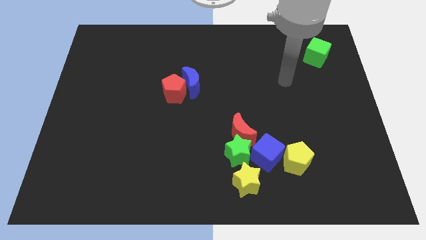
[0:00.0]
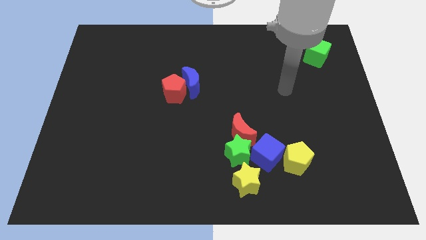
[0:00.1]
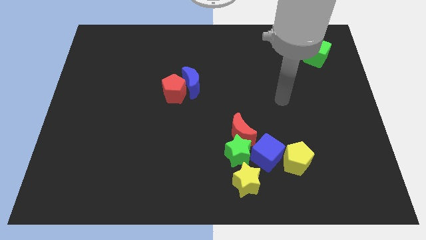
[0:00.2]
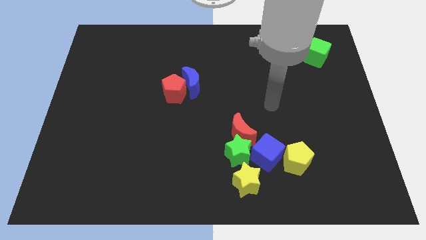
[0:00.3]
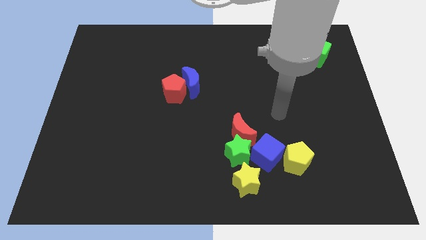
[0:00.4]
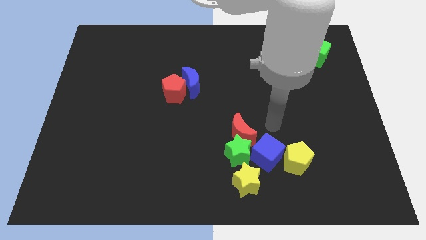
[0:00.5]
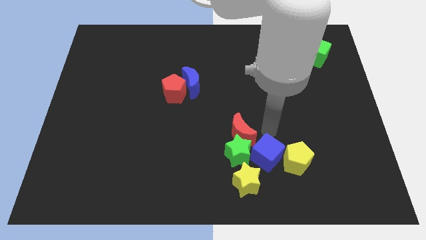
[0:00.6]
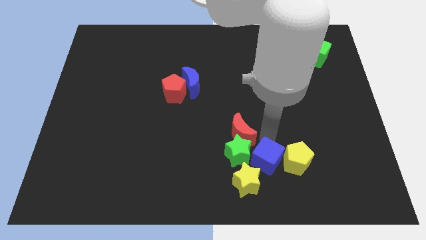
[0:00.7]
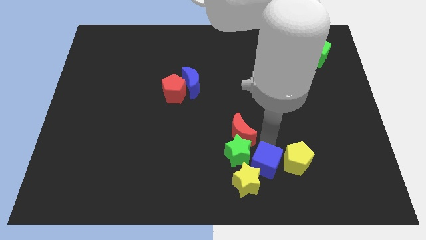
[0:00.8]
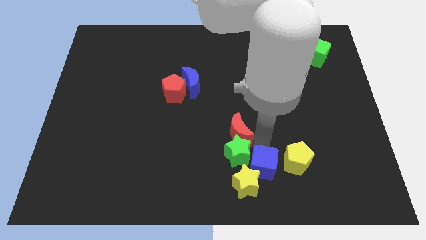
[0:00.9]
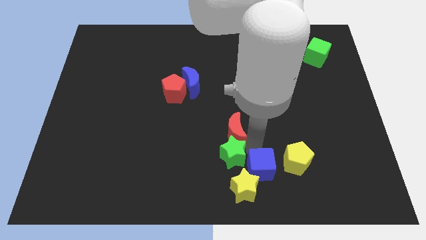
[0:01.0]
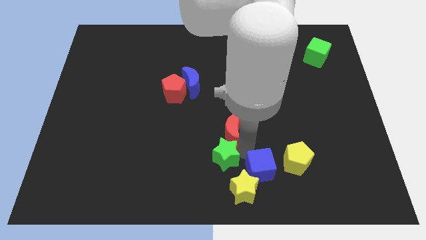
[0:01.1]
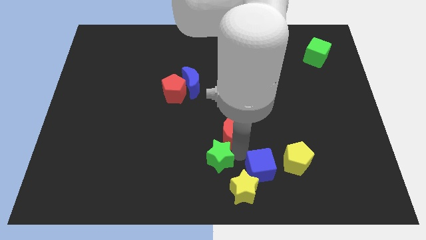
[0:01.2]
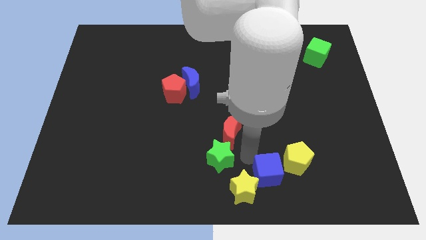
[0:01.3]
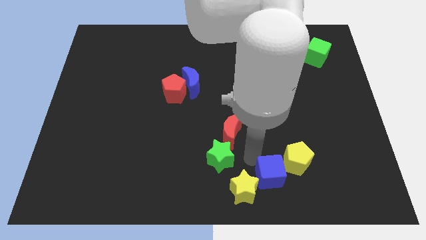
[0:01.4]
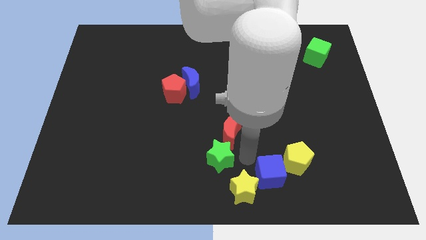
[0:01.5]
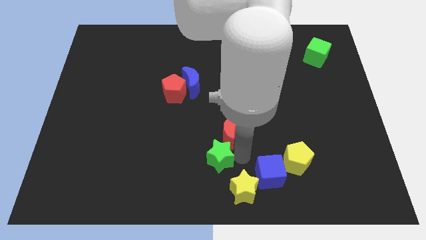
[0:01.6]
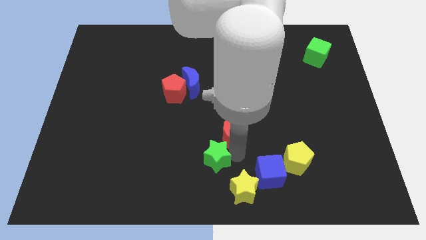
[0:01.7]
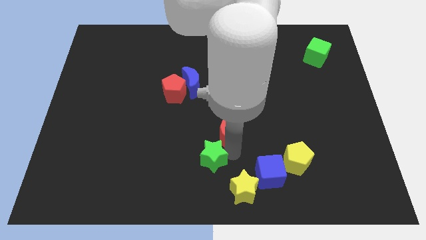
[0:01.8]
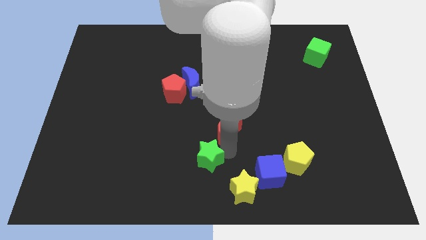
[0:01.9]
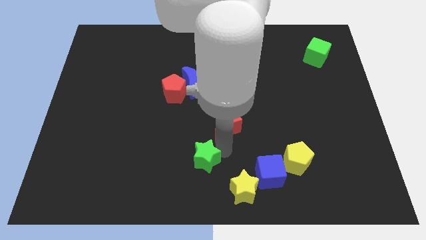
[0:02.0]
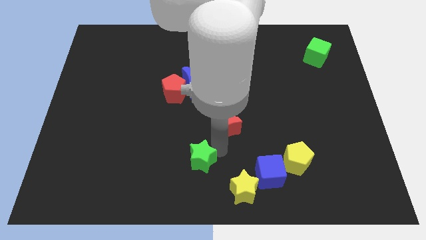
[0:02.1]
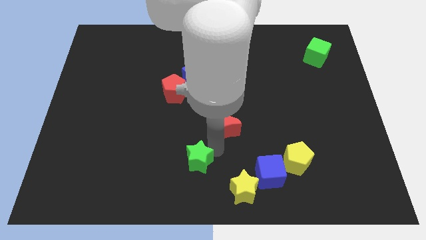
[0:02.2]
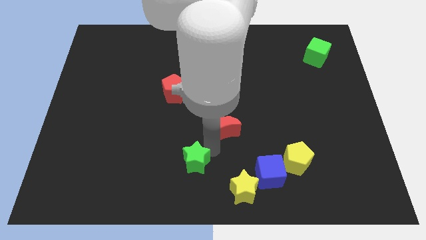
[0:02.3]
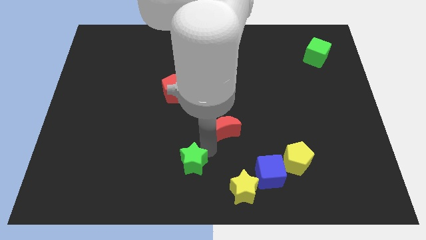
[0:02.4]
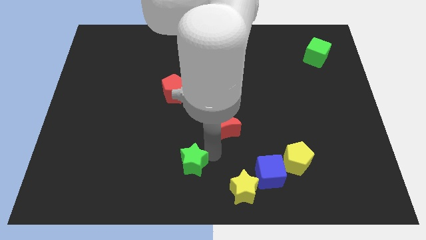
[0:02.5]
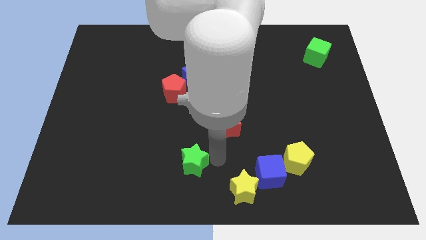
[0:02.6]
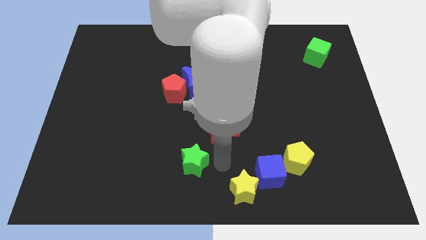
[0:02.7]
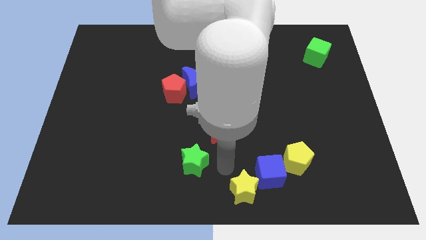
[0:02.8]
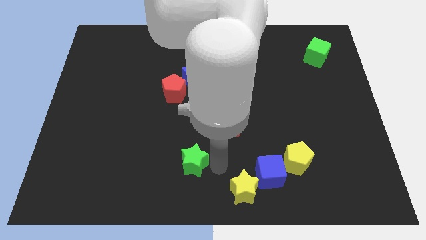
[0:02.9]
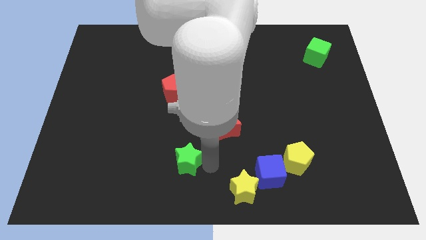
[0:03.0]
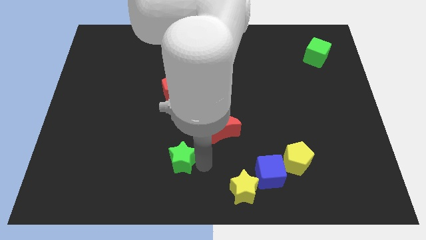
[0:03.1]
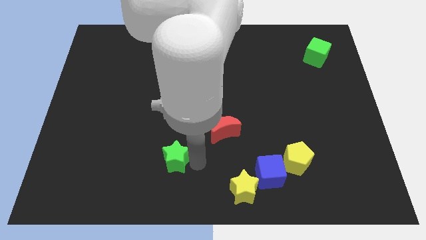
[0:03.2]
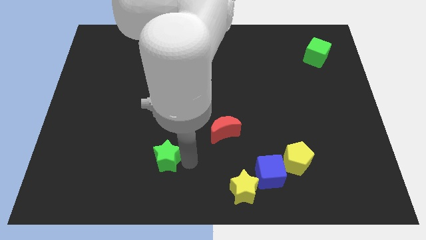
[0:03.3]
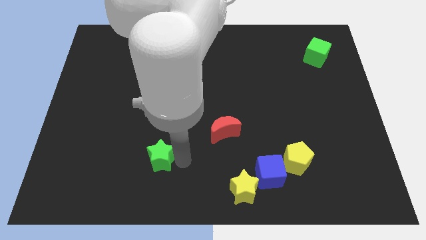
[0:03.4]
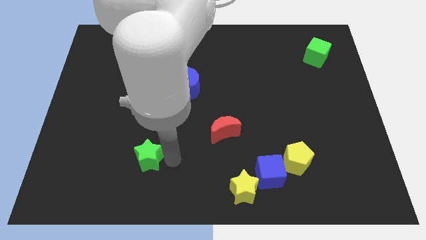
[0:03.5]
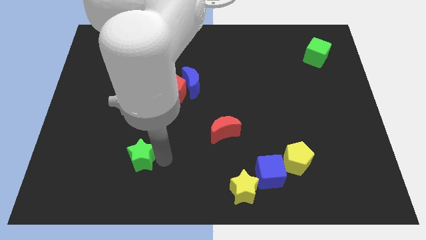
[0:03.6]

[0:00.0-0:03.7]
slide the green star left

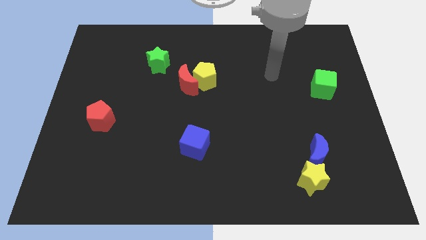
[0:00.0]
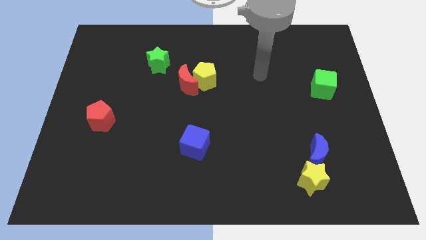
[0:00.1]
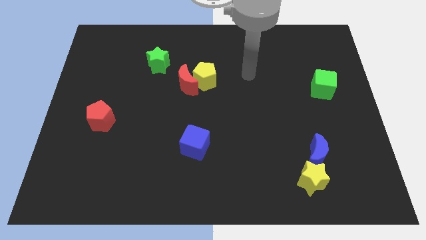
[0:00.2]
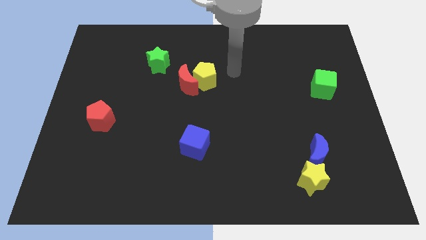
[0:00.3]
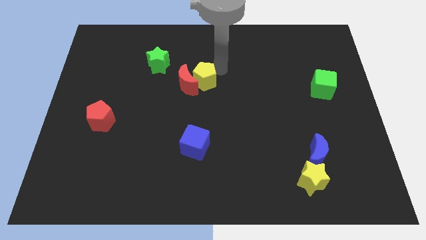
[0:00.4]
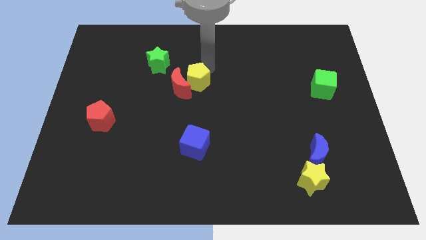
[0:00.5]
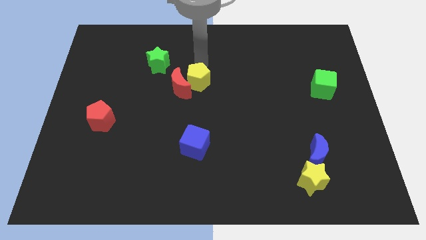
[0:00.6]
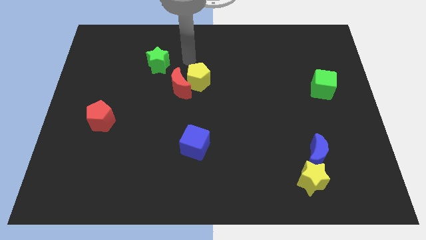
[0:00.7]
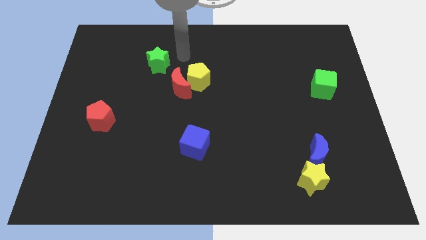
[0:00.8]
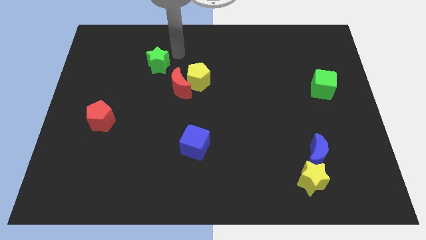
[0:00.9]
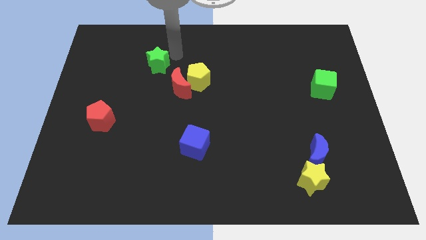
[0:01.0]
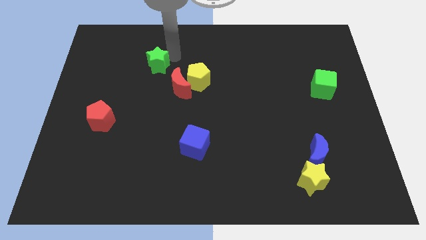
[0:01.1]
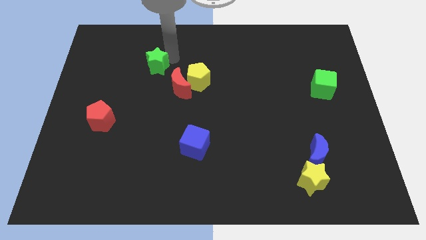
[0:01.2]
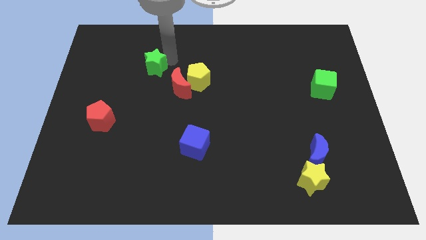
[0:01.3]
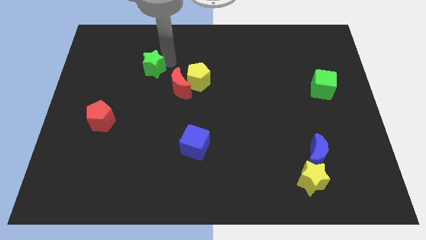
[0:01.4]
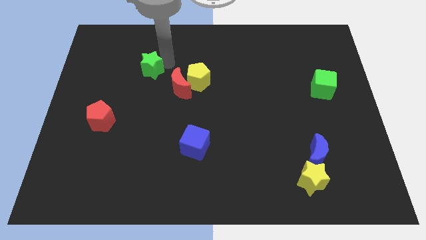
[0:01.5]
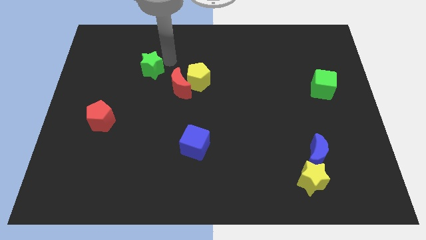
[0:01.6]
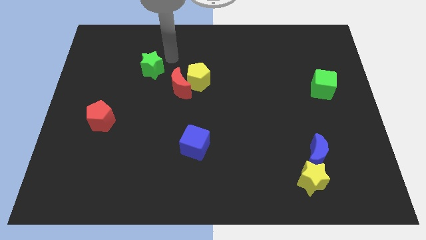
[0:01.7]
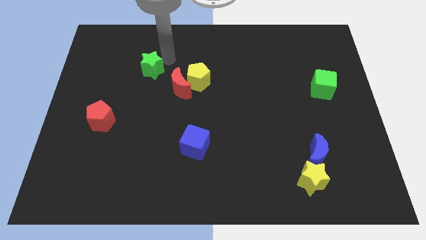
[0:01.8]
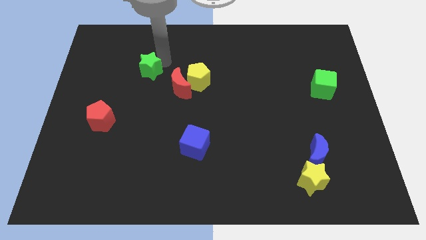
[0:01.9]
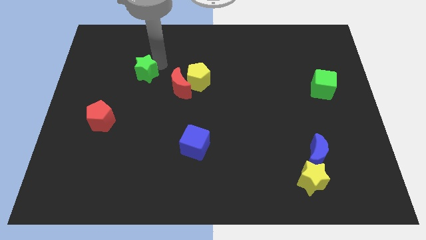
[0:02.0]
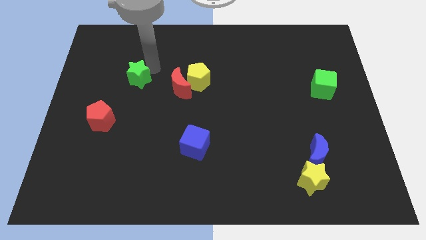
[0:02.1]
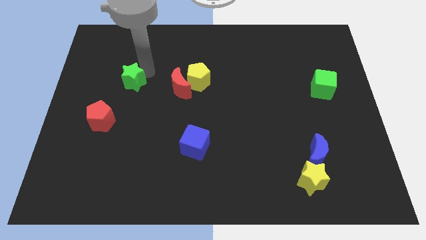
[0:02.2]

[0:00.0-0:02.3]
move the green star downwards and left somewhat

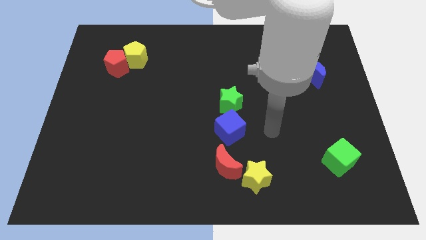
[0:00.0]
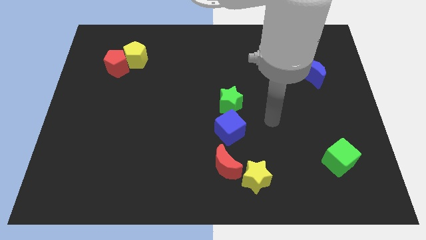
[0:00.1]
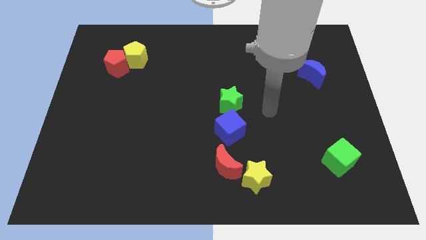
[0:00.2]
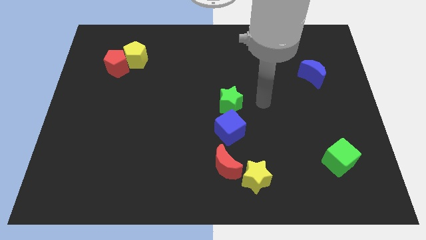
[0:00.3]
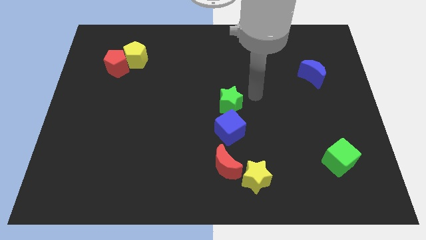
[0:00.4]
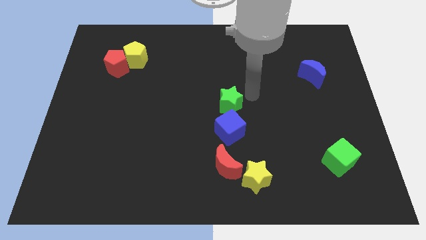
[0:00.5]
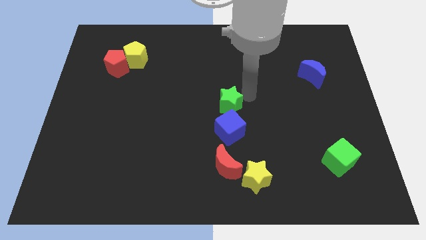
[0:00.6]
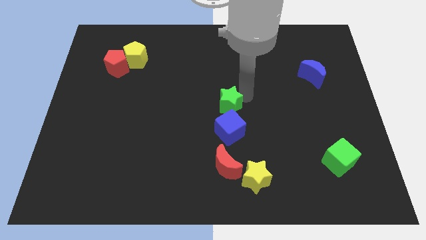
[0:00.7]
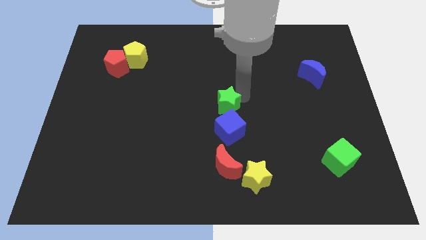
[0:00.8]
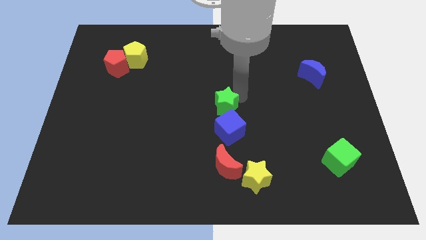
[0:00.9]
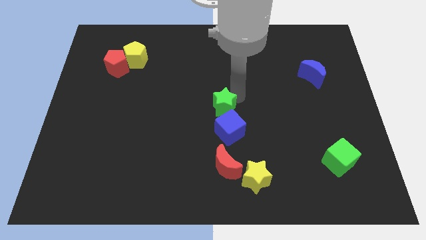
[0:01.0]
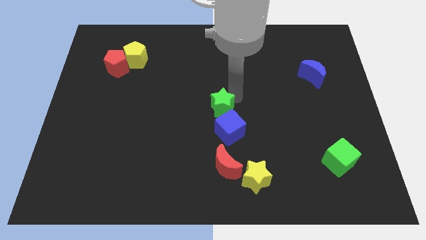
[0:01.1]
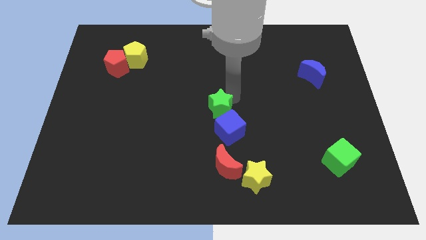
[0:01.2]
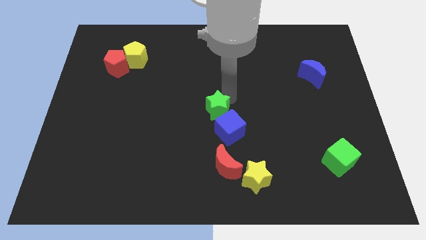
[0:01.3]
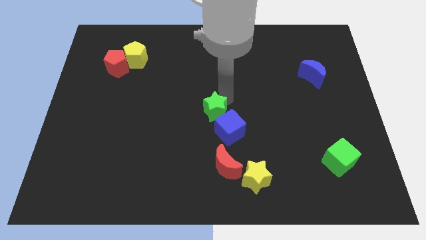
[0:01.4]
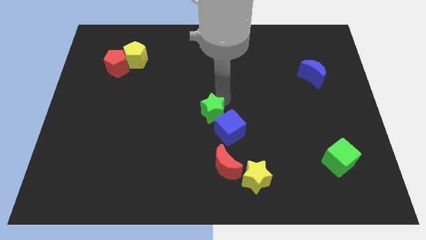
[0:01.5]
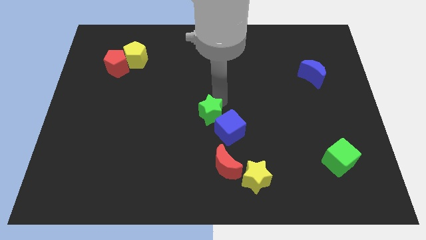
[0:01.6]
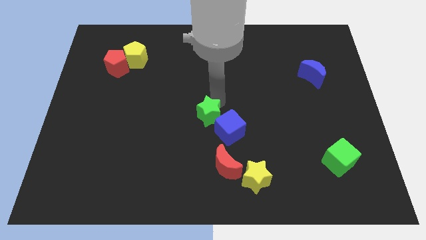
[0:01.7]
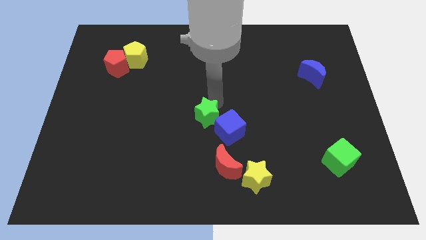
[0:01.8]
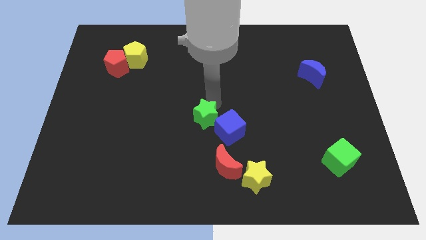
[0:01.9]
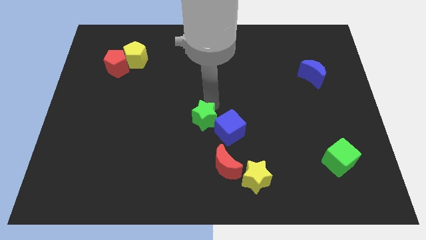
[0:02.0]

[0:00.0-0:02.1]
move the green star somewhat downwards and left diagonally

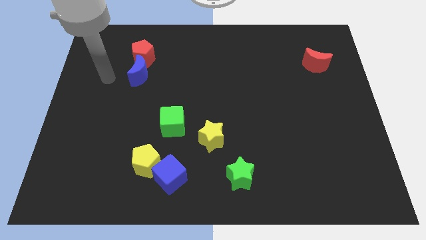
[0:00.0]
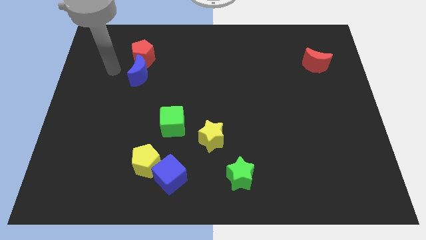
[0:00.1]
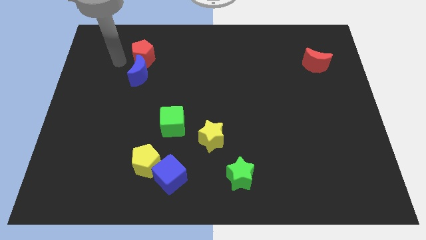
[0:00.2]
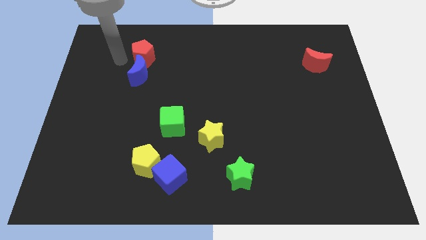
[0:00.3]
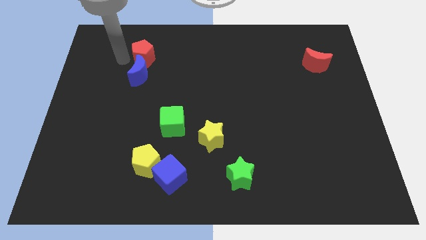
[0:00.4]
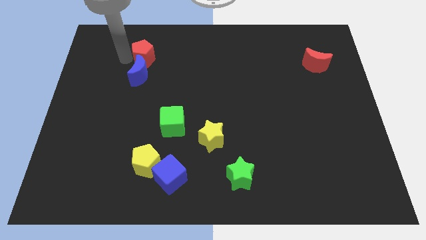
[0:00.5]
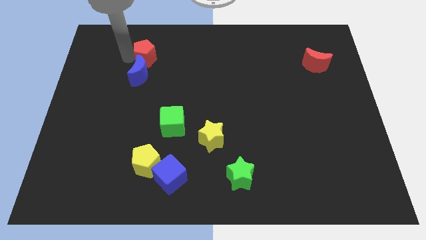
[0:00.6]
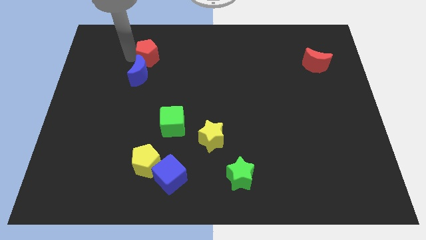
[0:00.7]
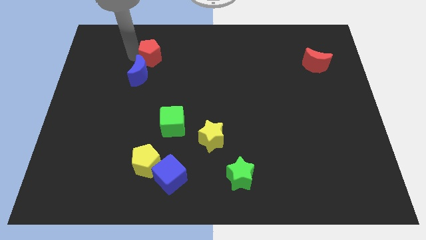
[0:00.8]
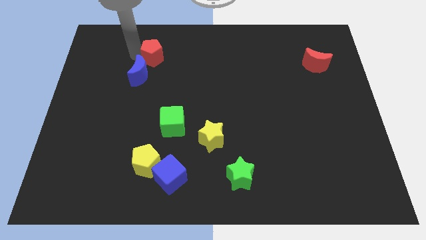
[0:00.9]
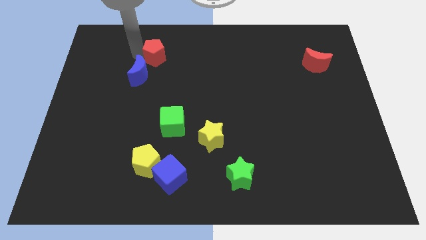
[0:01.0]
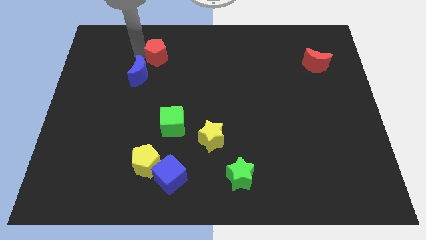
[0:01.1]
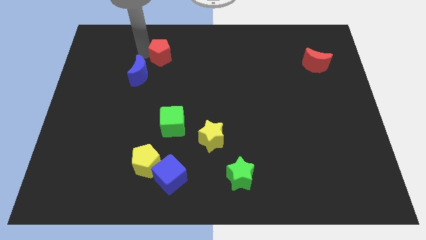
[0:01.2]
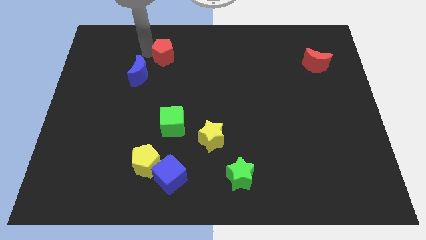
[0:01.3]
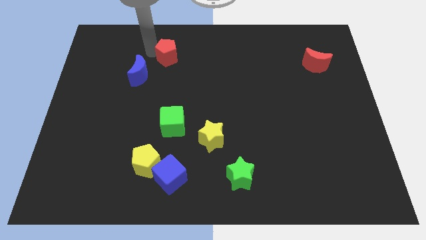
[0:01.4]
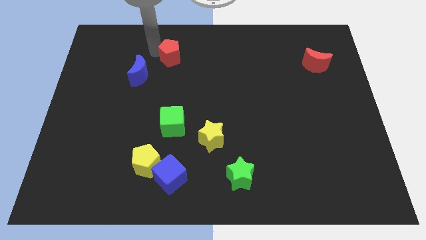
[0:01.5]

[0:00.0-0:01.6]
slightly move the red pentagon right
